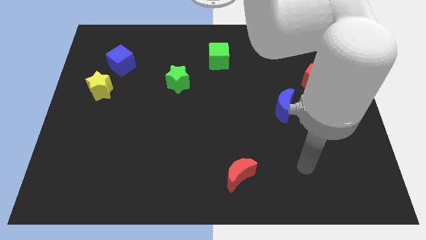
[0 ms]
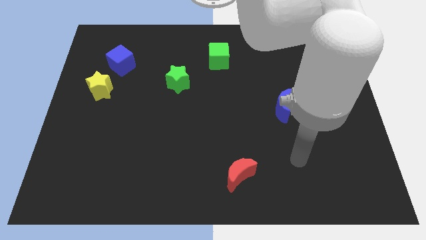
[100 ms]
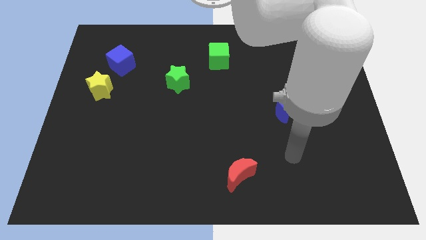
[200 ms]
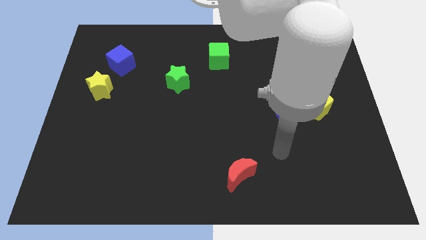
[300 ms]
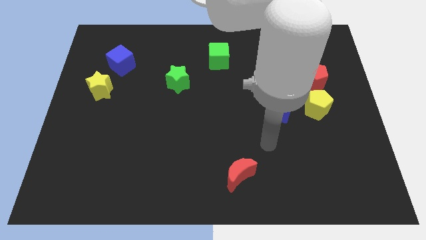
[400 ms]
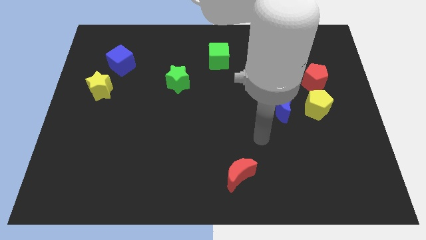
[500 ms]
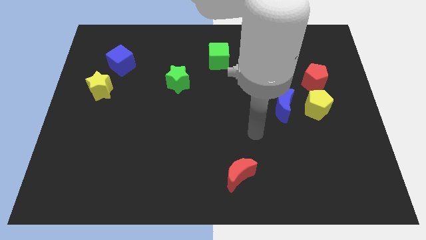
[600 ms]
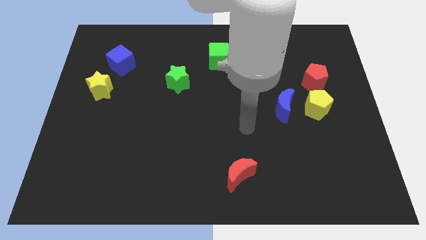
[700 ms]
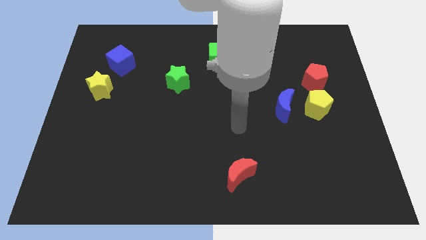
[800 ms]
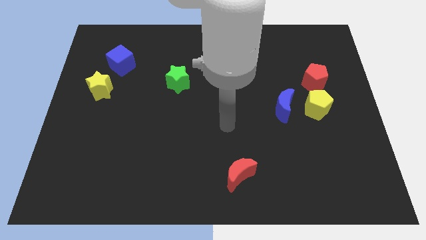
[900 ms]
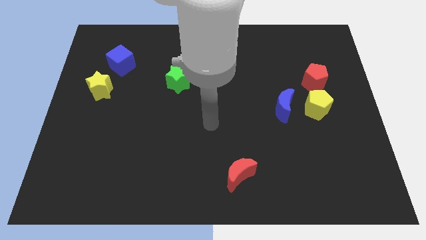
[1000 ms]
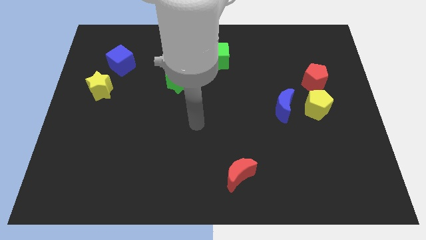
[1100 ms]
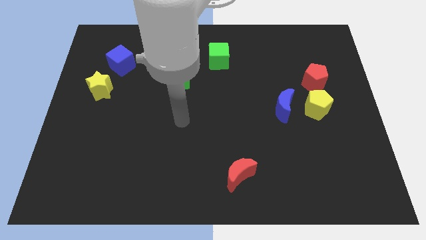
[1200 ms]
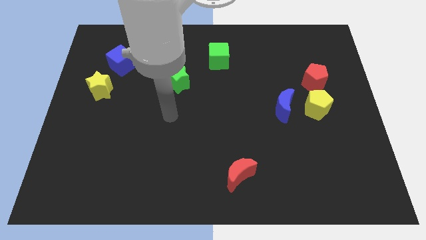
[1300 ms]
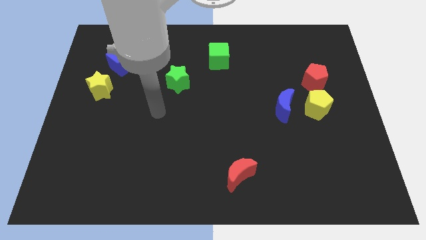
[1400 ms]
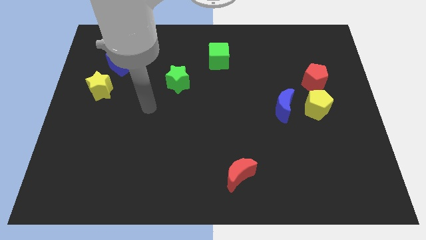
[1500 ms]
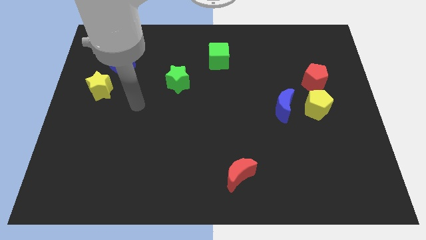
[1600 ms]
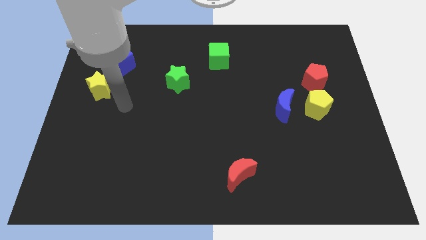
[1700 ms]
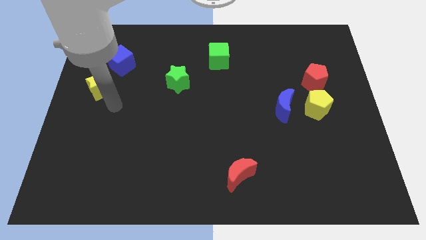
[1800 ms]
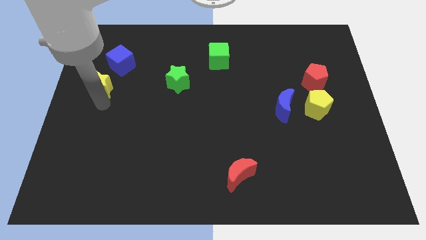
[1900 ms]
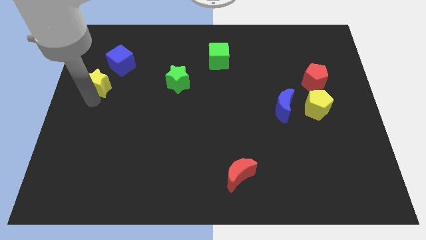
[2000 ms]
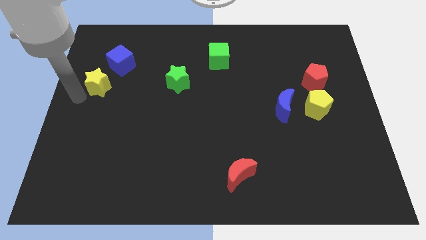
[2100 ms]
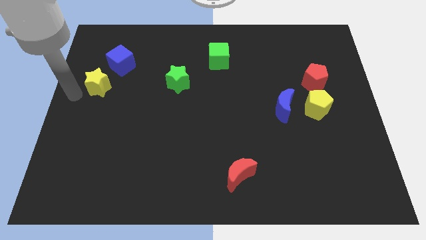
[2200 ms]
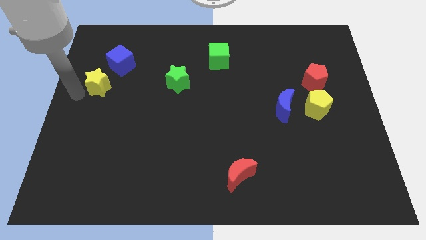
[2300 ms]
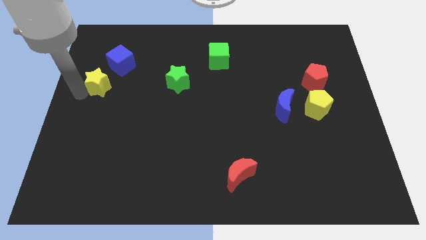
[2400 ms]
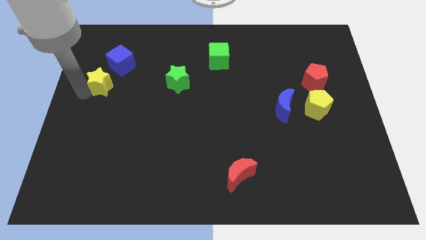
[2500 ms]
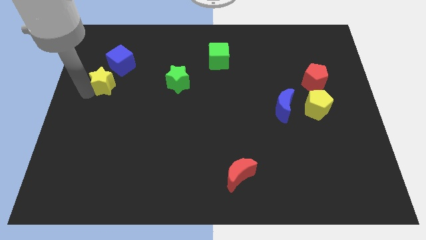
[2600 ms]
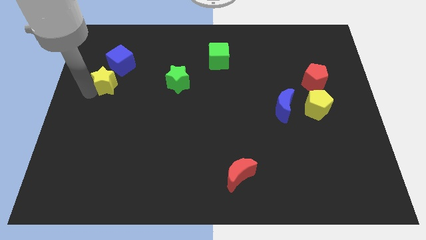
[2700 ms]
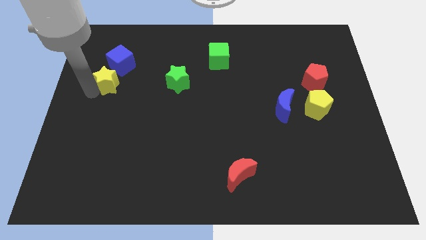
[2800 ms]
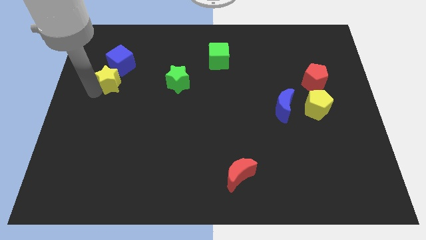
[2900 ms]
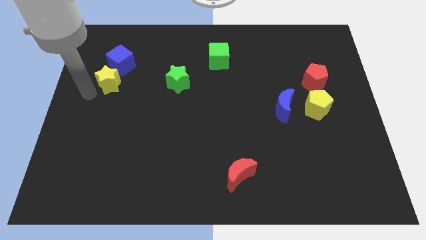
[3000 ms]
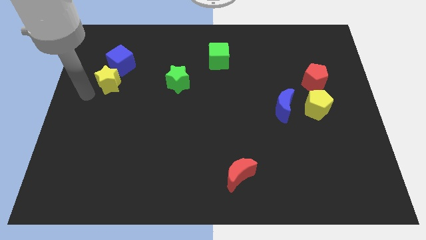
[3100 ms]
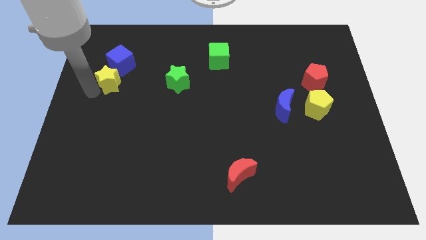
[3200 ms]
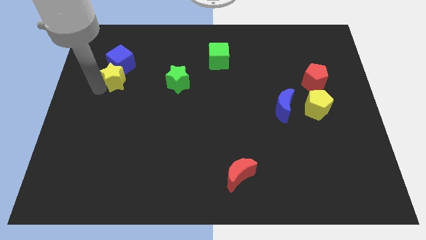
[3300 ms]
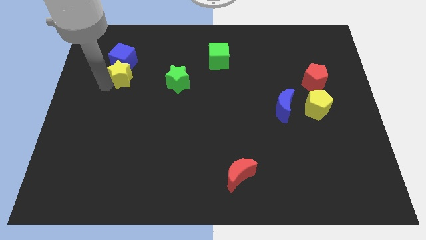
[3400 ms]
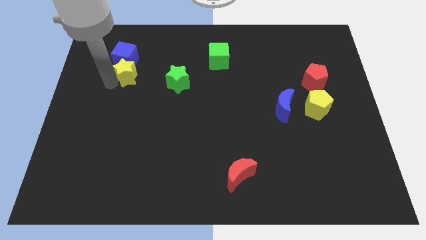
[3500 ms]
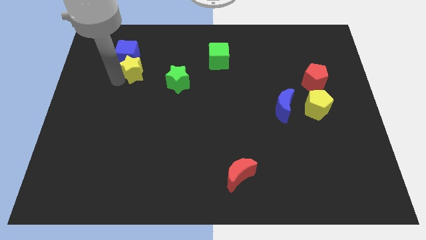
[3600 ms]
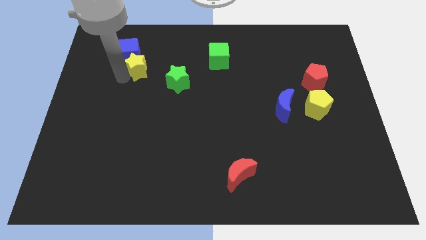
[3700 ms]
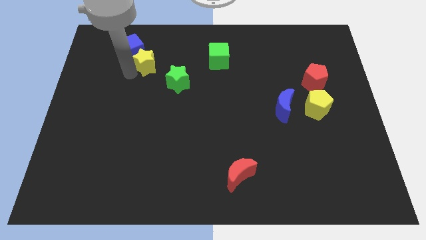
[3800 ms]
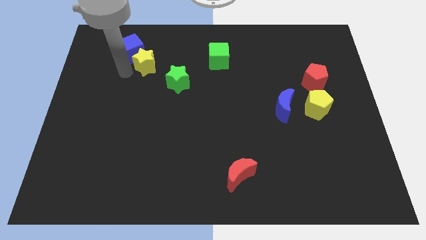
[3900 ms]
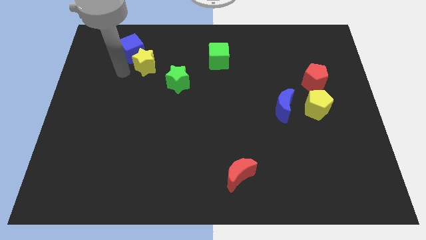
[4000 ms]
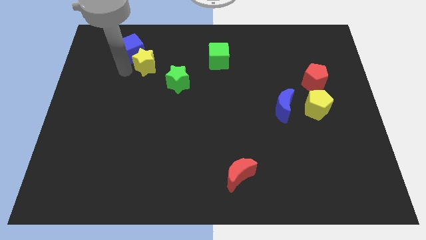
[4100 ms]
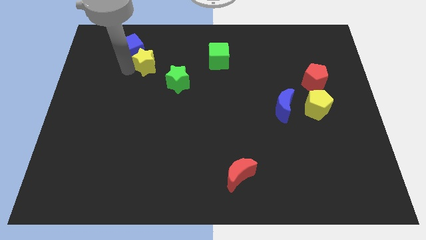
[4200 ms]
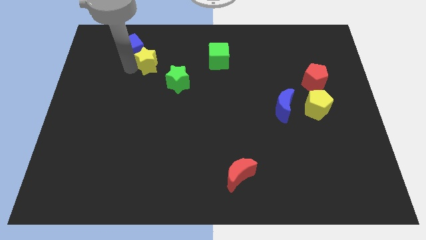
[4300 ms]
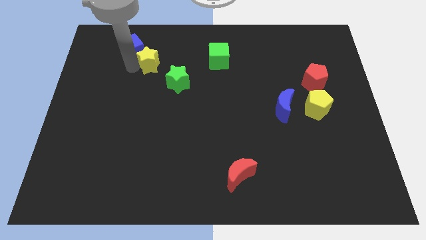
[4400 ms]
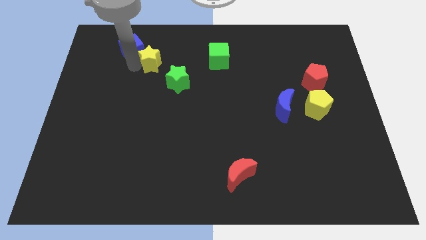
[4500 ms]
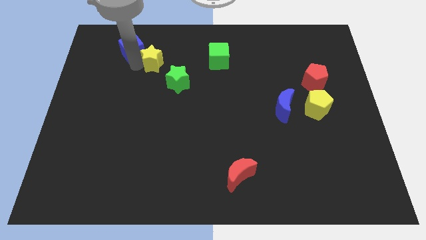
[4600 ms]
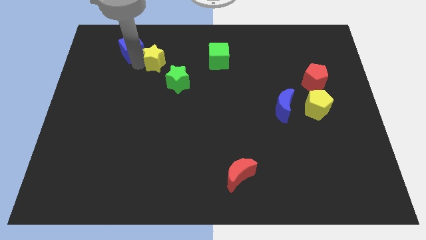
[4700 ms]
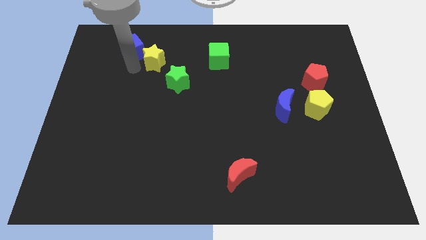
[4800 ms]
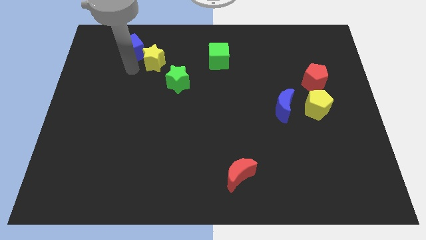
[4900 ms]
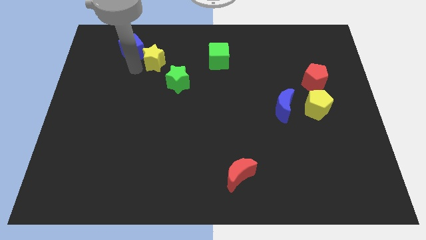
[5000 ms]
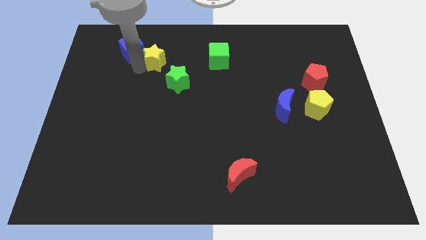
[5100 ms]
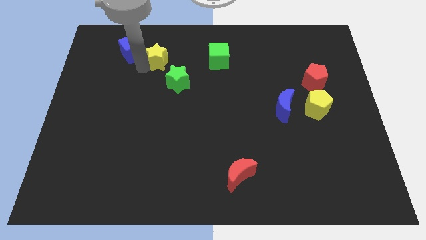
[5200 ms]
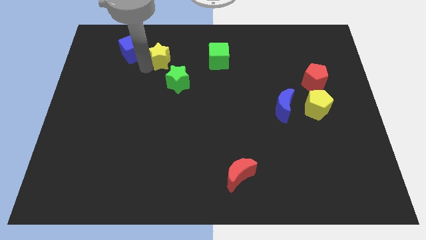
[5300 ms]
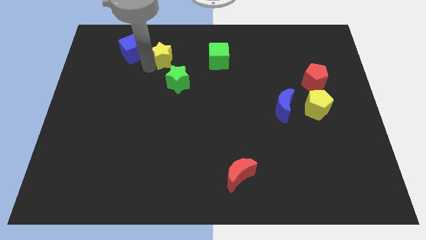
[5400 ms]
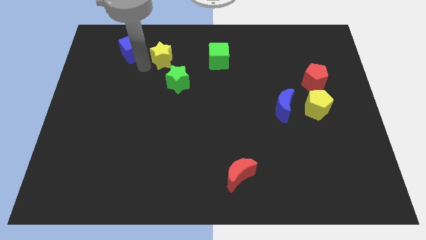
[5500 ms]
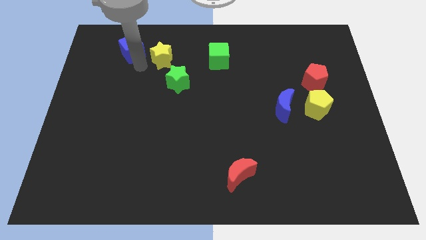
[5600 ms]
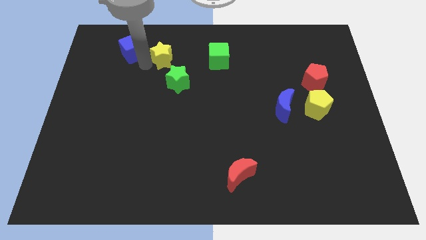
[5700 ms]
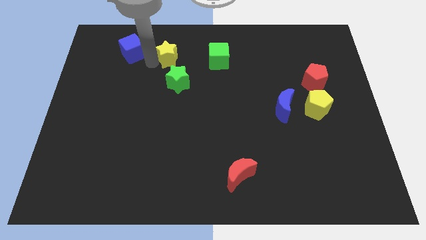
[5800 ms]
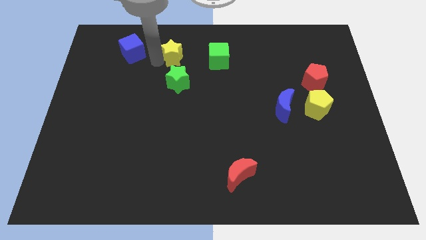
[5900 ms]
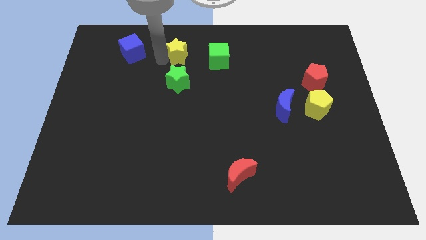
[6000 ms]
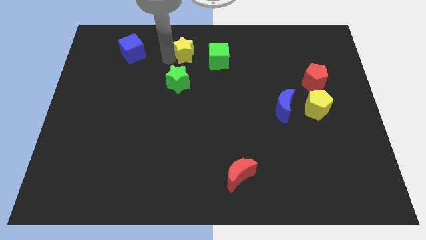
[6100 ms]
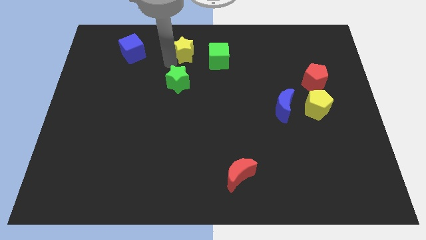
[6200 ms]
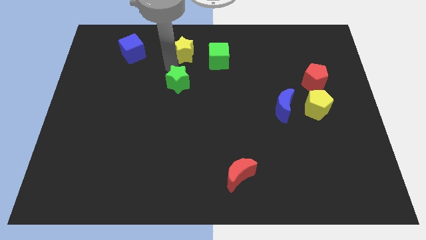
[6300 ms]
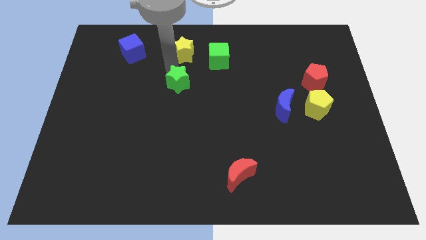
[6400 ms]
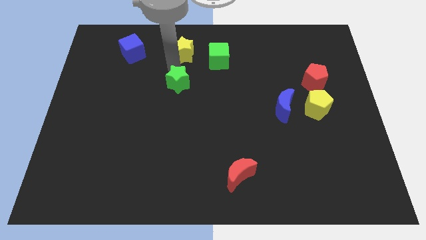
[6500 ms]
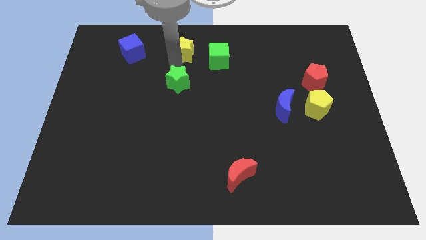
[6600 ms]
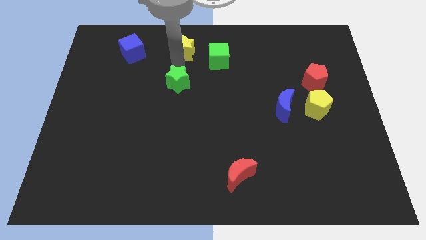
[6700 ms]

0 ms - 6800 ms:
move the yellow star to the towards your base
